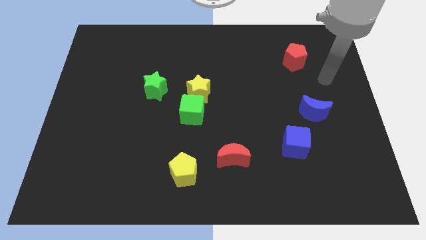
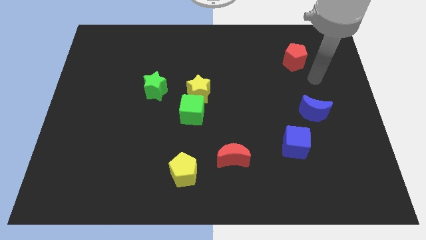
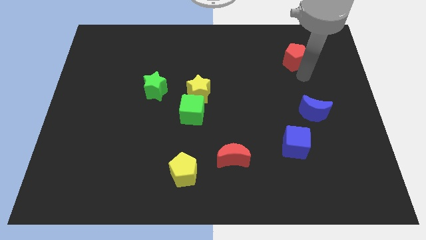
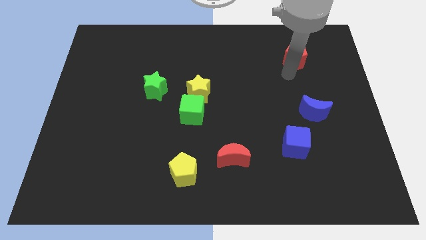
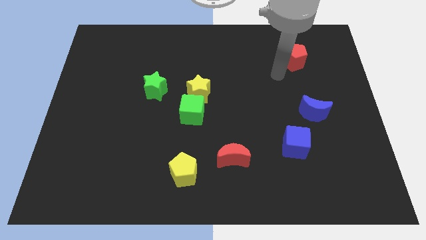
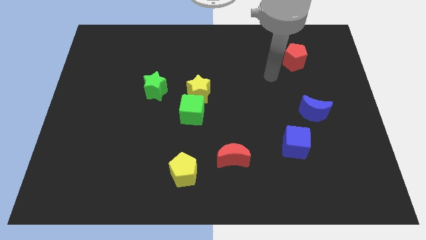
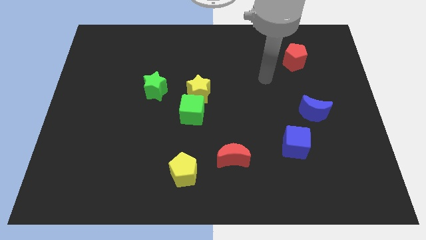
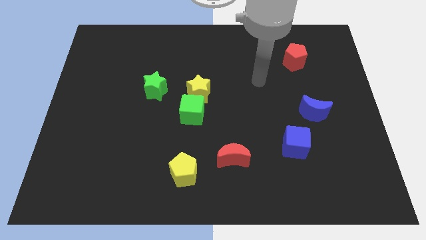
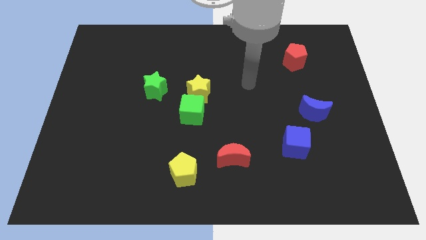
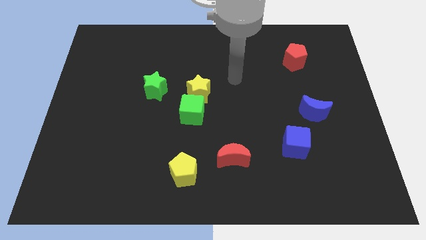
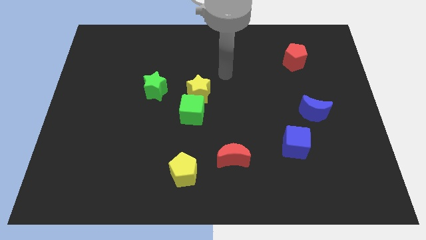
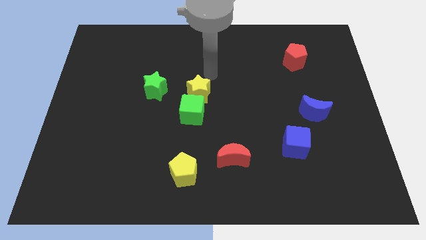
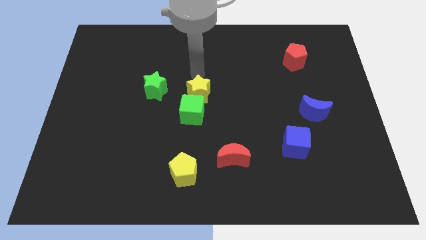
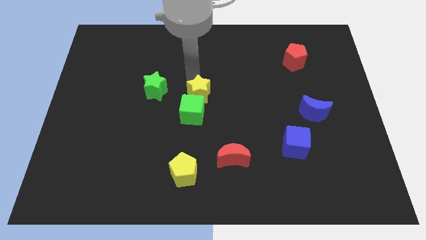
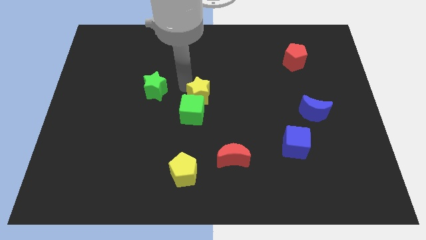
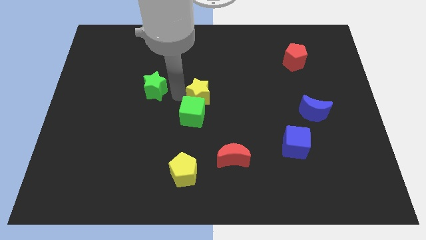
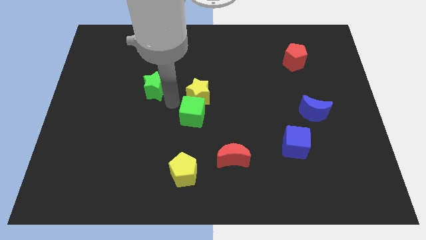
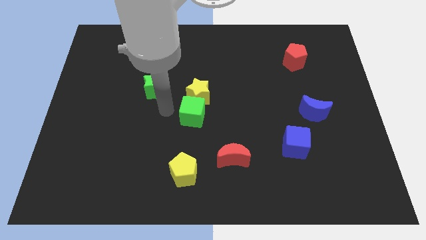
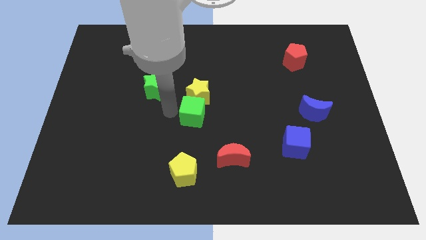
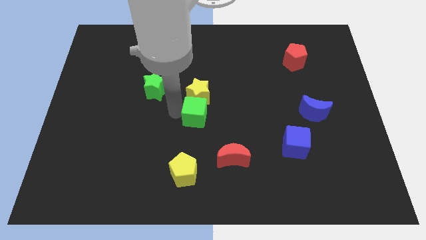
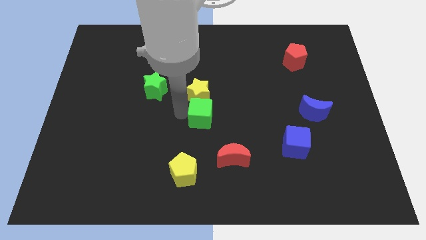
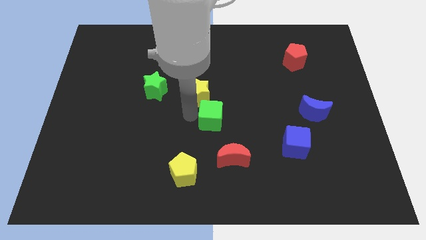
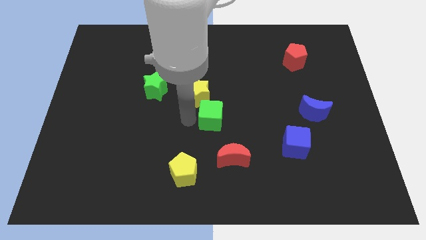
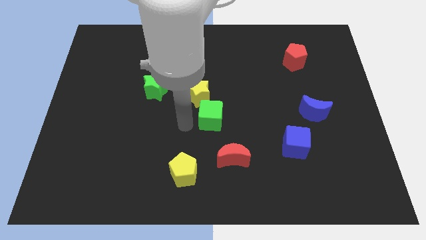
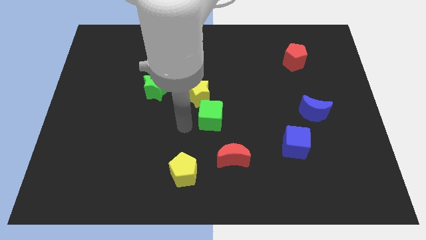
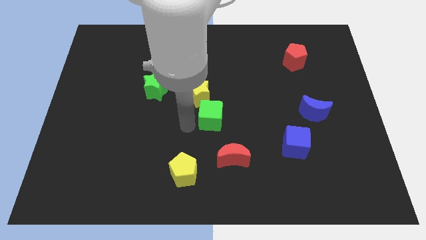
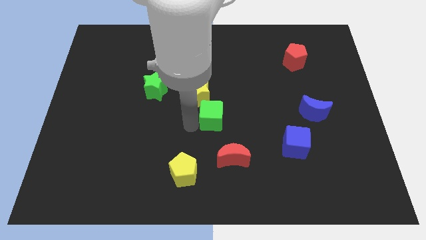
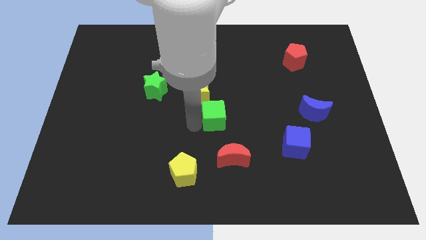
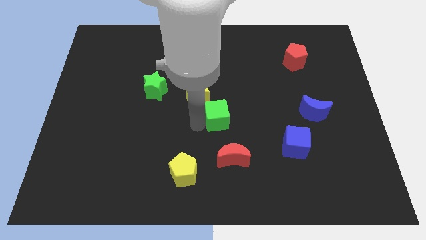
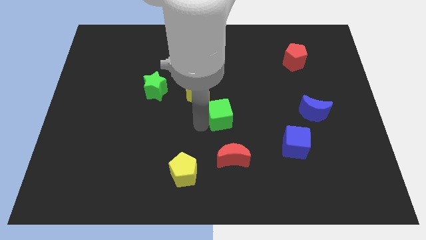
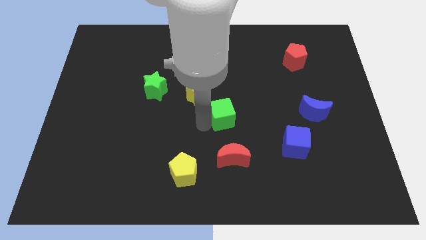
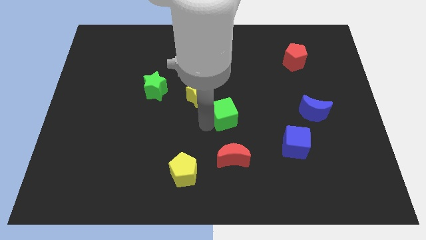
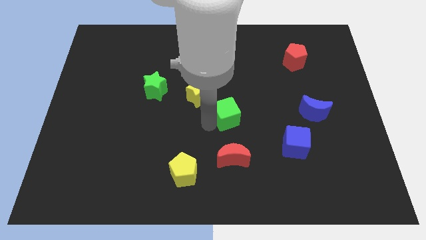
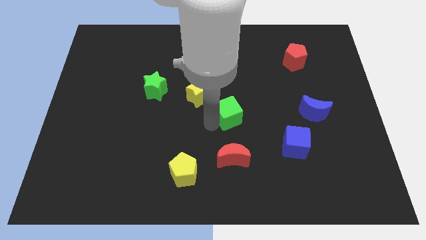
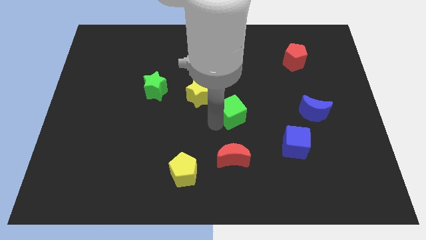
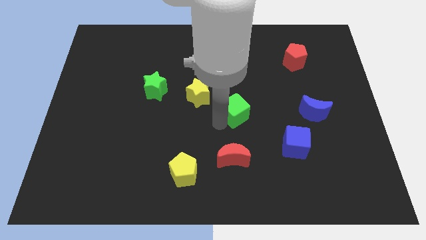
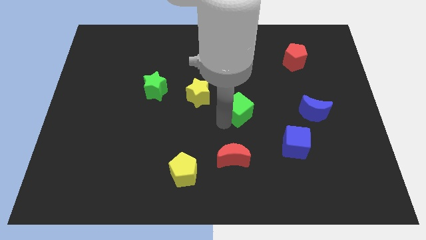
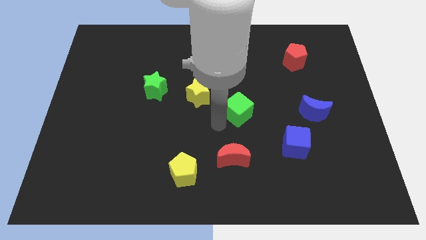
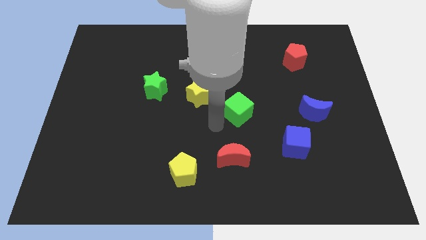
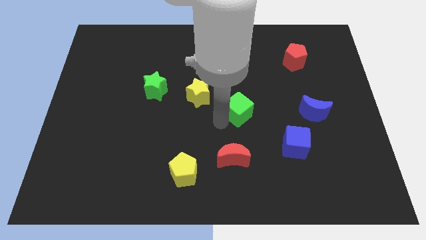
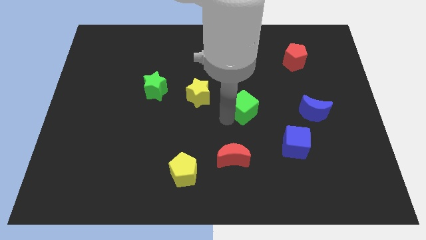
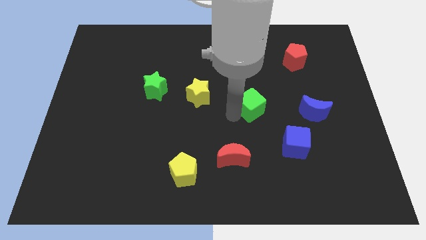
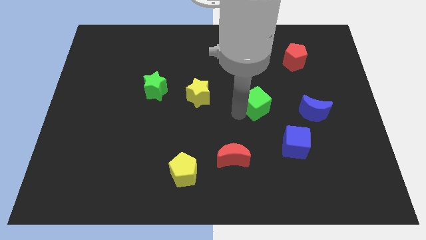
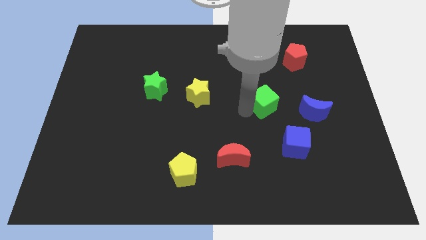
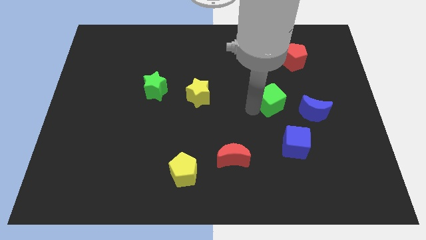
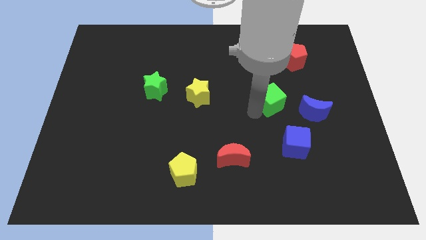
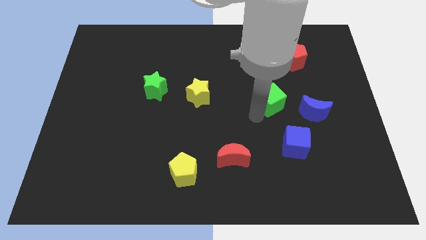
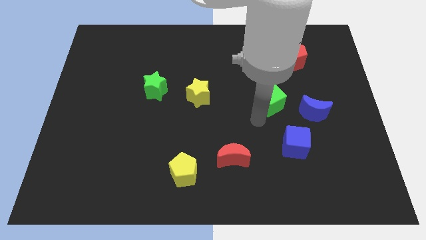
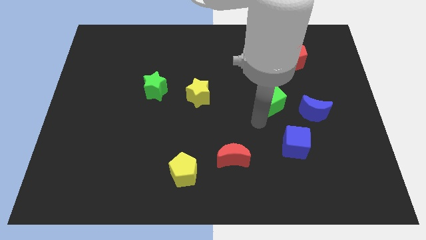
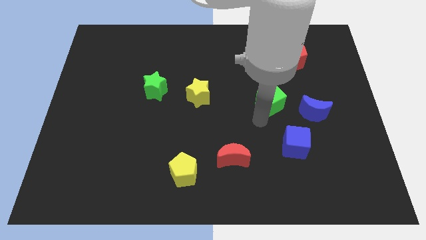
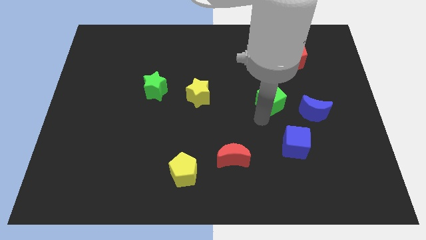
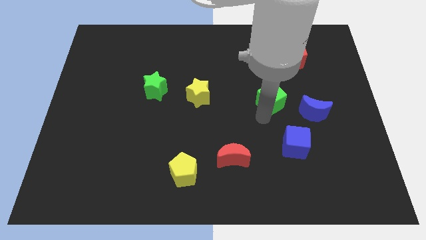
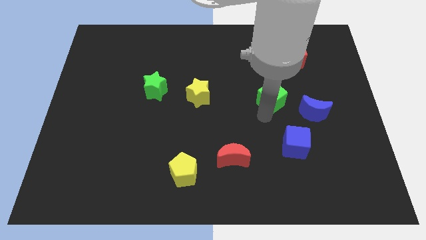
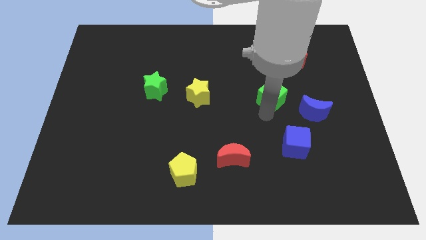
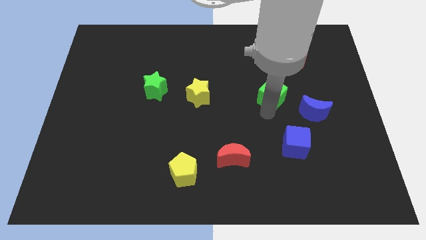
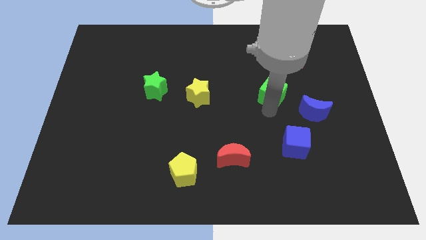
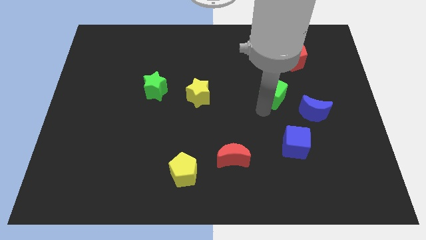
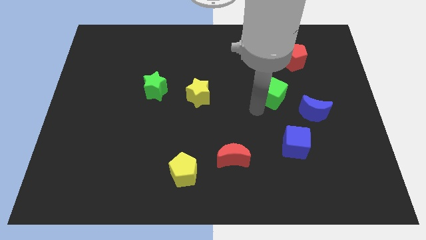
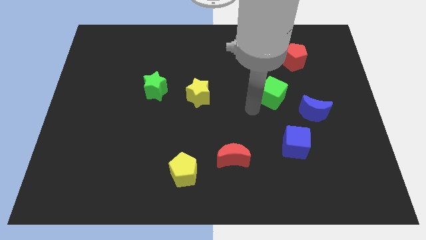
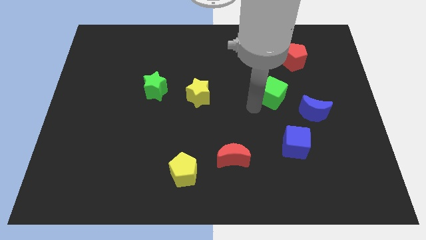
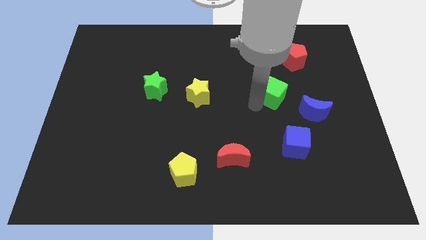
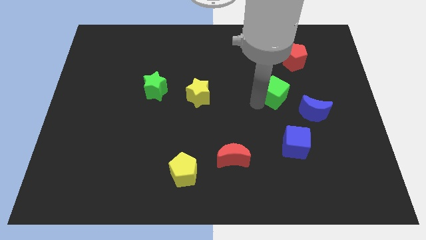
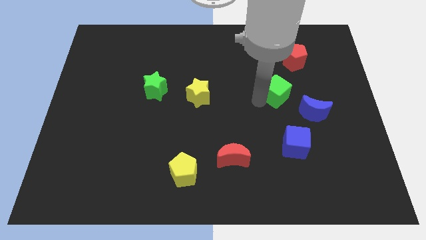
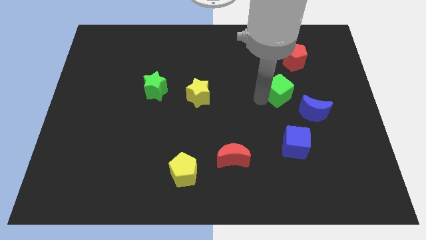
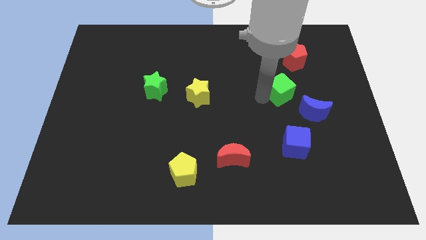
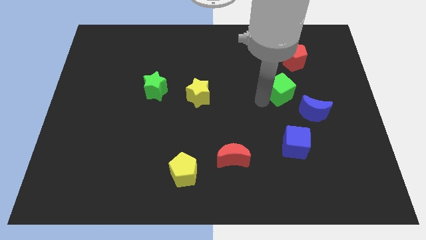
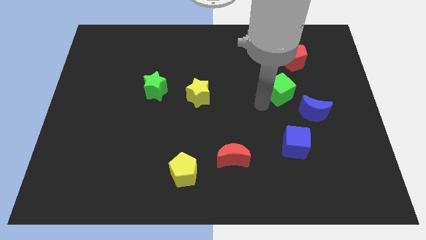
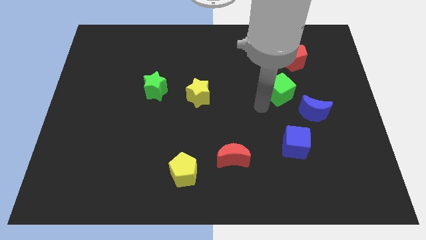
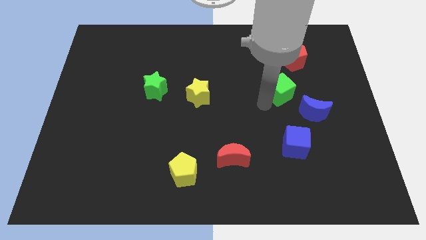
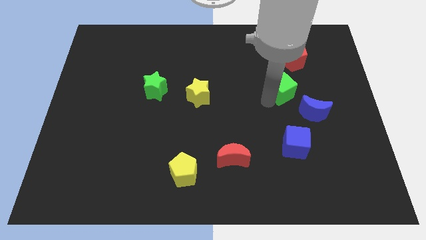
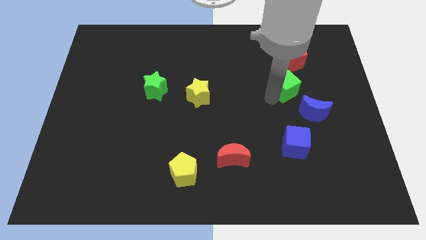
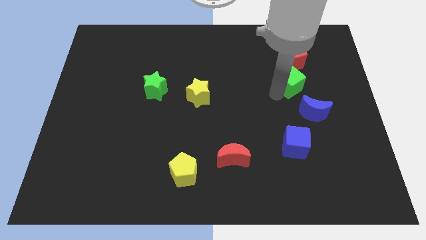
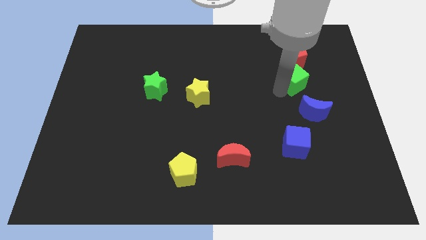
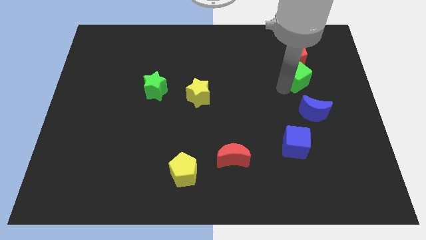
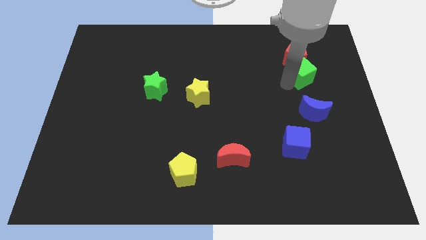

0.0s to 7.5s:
slide the green cube to the bottom right of the red pentagon
